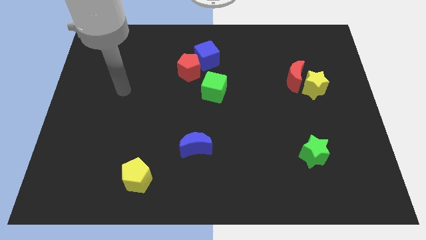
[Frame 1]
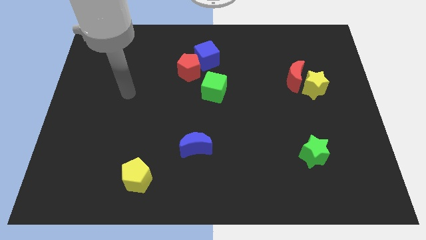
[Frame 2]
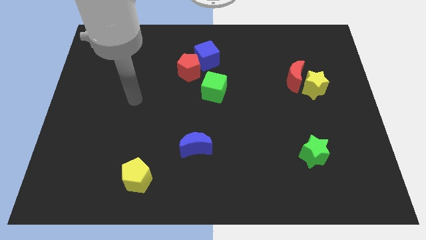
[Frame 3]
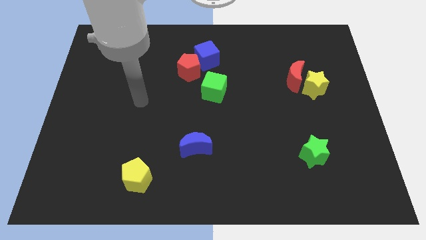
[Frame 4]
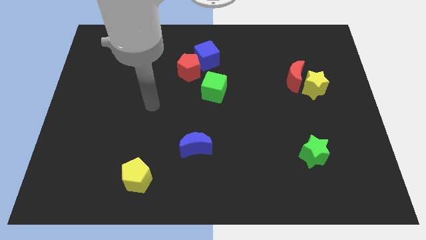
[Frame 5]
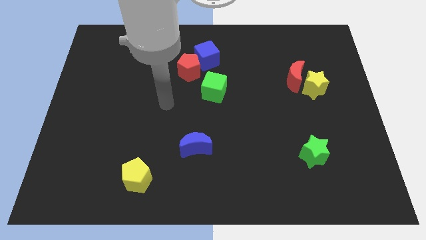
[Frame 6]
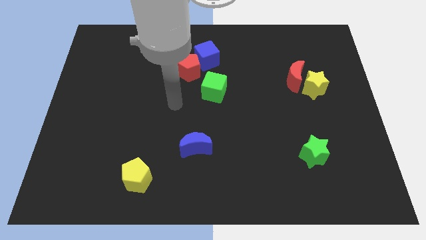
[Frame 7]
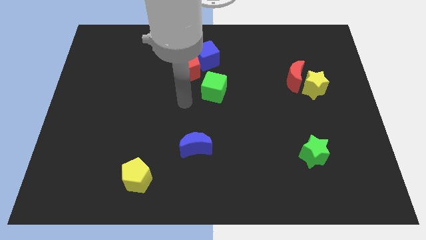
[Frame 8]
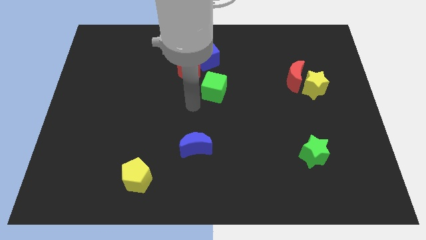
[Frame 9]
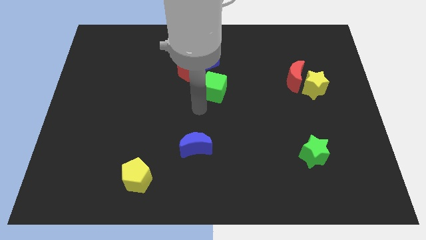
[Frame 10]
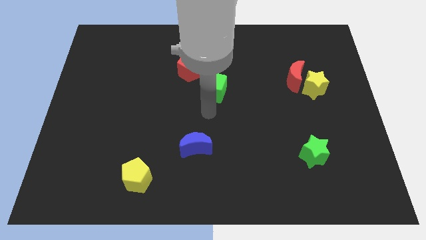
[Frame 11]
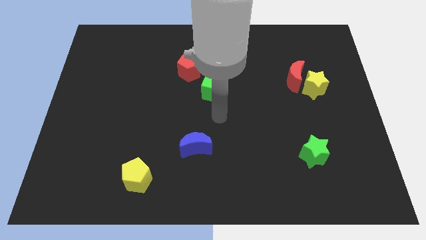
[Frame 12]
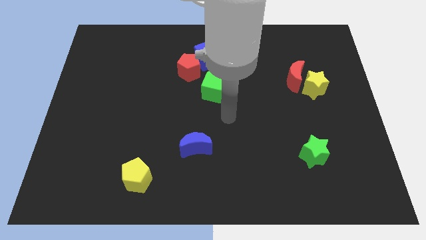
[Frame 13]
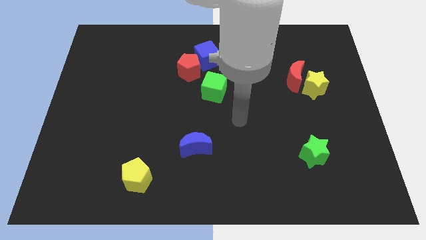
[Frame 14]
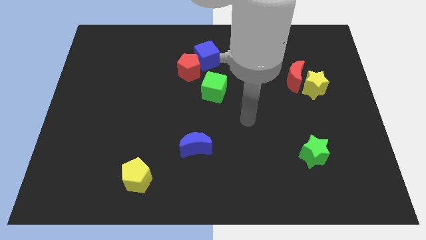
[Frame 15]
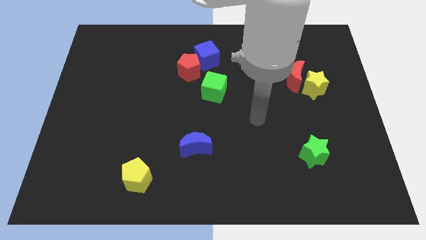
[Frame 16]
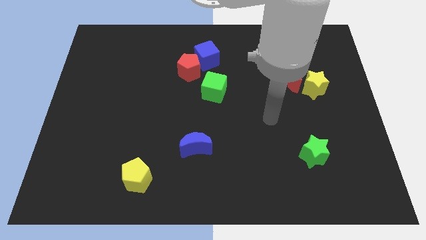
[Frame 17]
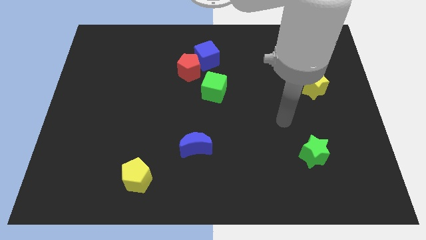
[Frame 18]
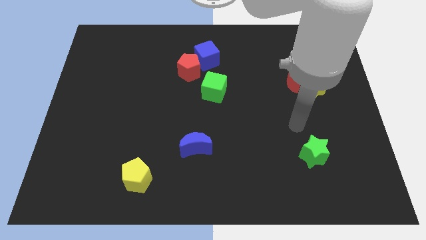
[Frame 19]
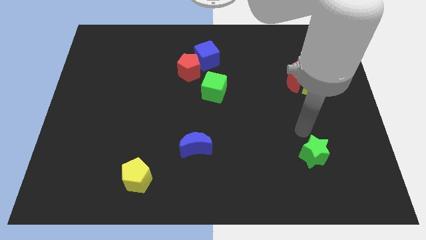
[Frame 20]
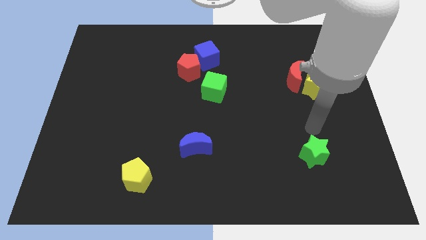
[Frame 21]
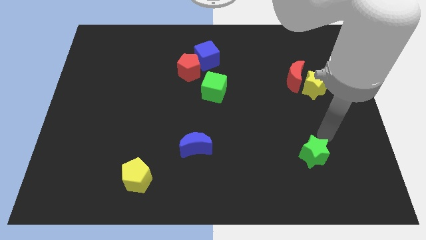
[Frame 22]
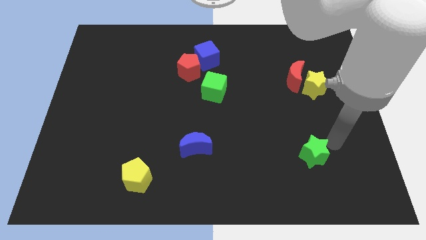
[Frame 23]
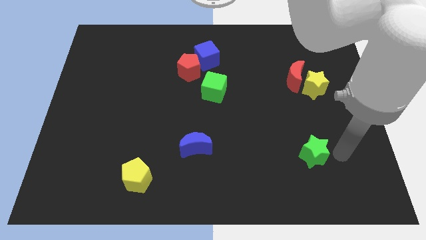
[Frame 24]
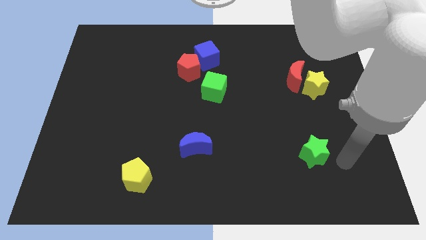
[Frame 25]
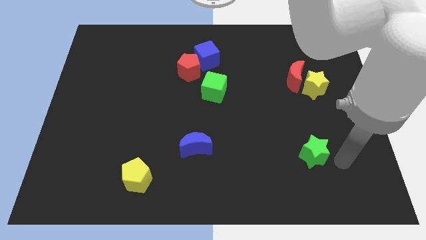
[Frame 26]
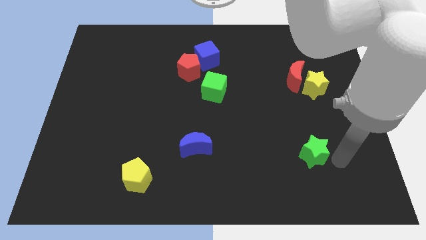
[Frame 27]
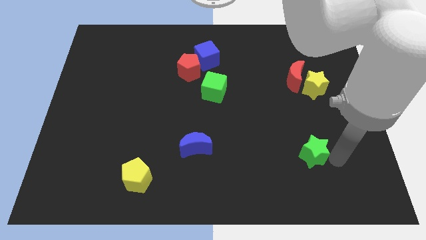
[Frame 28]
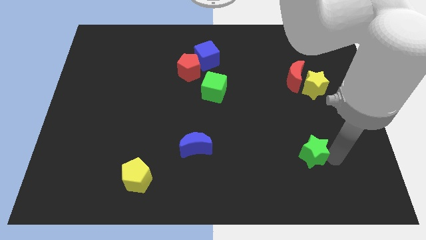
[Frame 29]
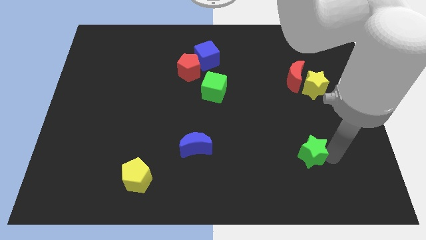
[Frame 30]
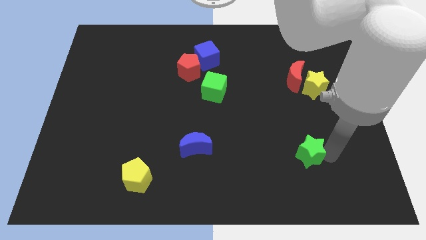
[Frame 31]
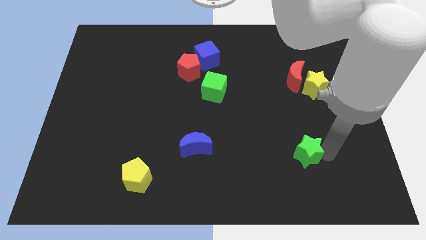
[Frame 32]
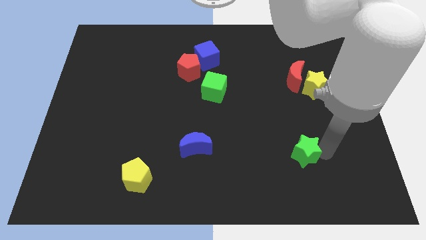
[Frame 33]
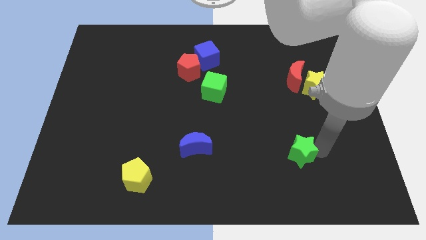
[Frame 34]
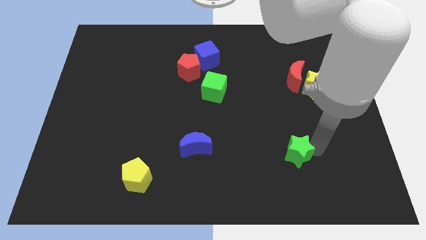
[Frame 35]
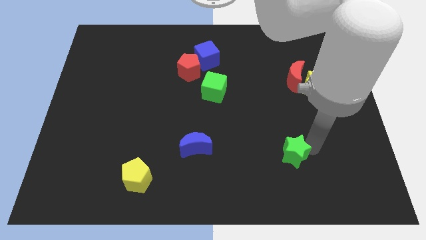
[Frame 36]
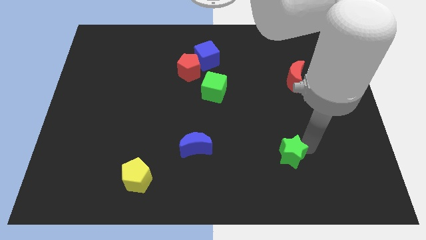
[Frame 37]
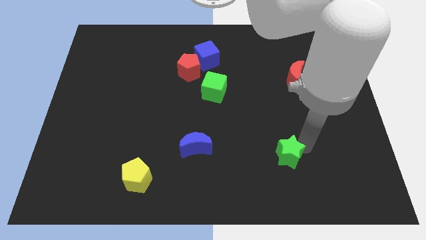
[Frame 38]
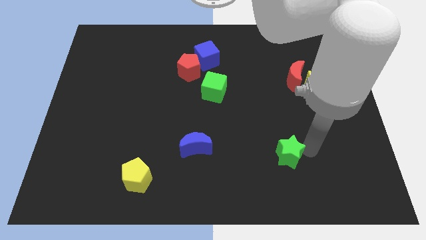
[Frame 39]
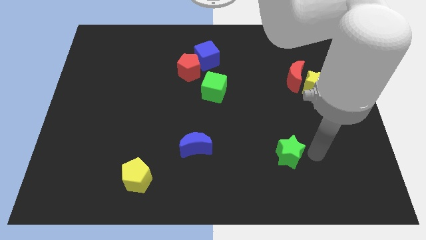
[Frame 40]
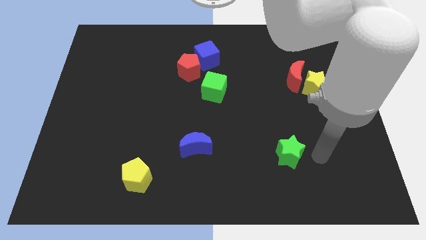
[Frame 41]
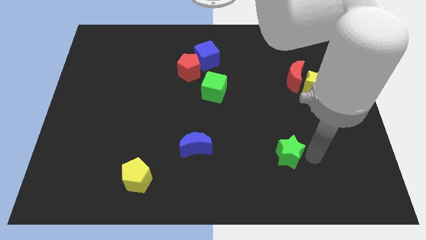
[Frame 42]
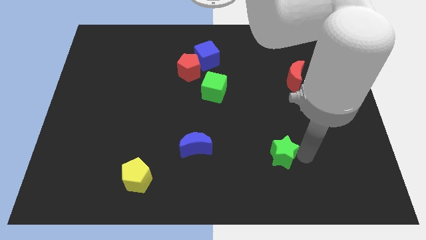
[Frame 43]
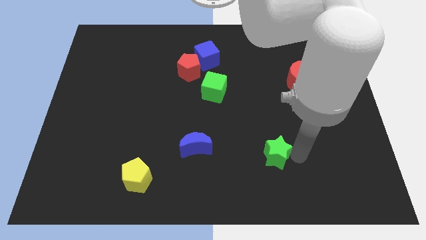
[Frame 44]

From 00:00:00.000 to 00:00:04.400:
push the green star slightly to the left

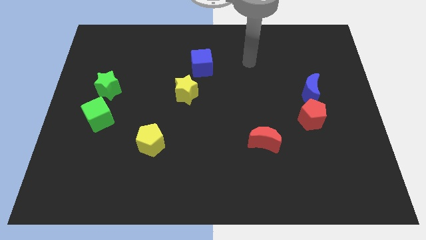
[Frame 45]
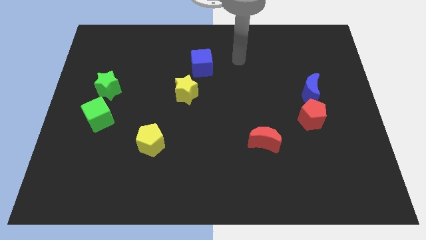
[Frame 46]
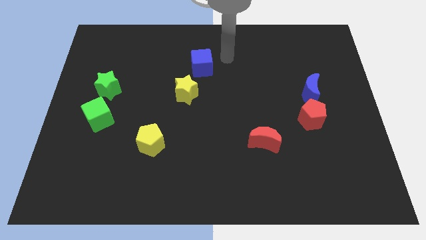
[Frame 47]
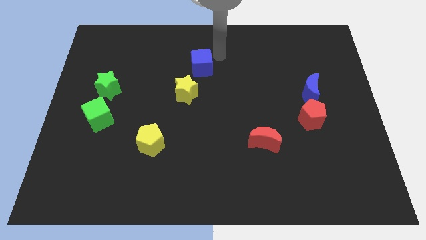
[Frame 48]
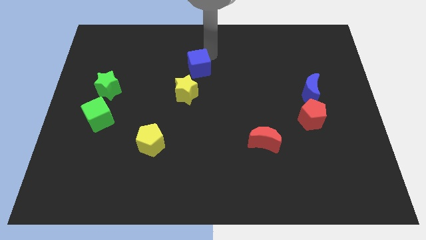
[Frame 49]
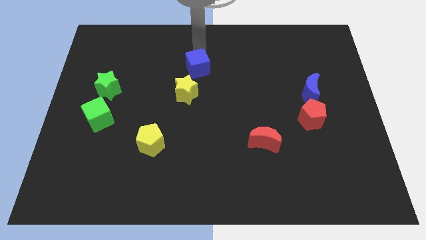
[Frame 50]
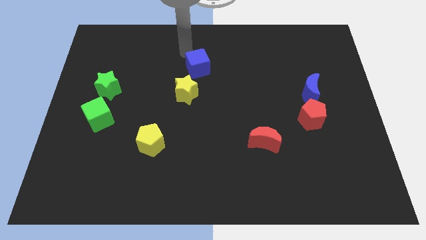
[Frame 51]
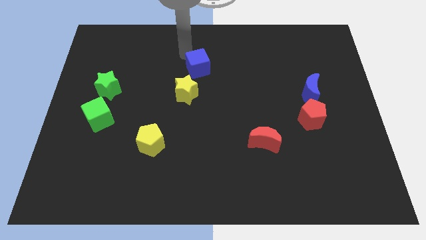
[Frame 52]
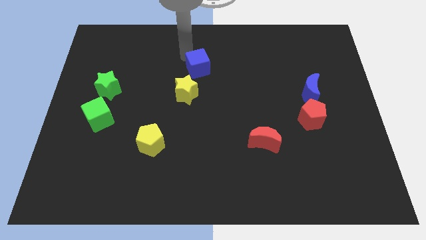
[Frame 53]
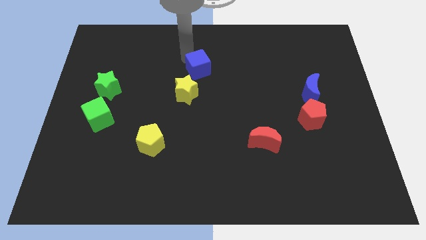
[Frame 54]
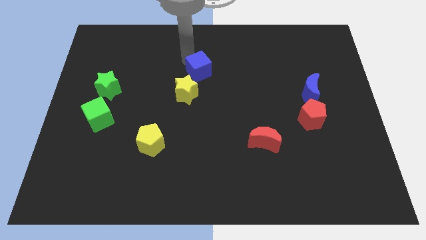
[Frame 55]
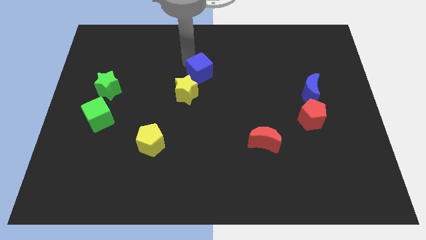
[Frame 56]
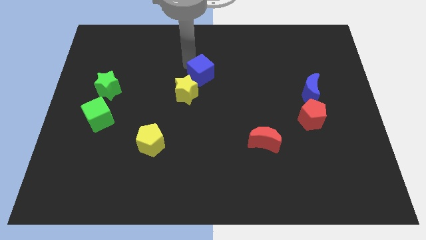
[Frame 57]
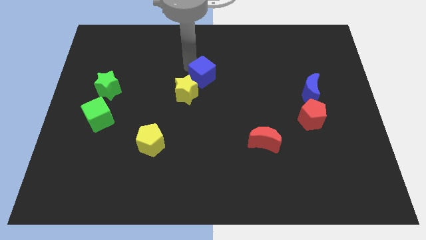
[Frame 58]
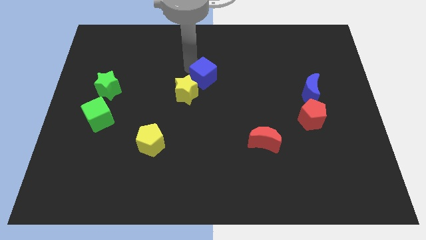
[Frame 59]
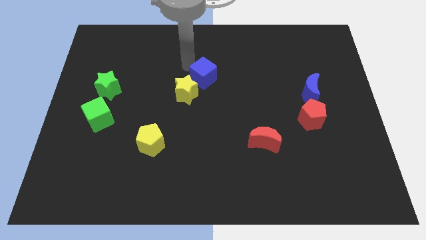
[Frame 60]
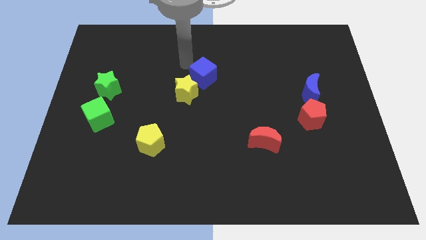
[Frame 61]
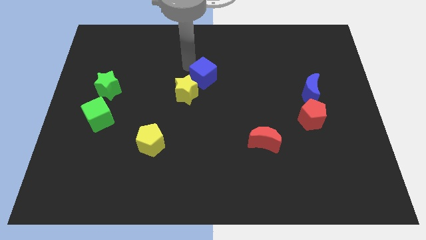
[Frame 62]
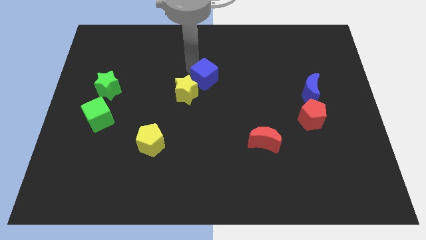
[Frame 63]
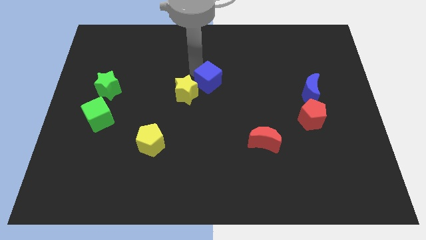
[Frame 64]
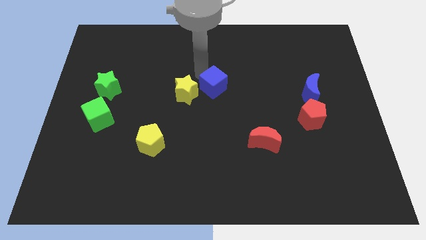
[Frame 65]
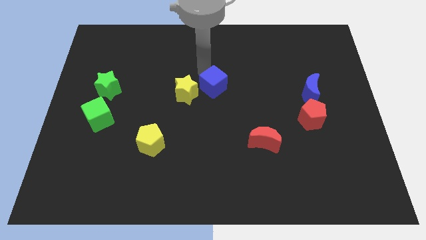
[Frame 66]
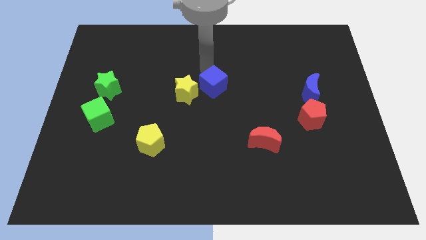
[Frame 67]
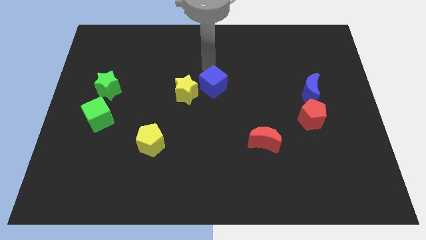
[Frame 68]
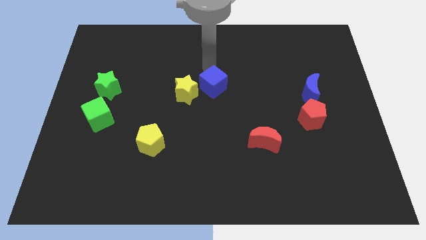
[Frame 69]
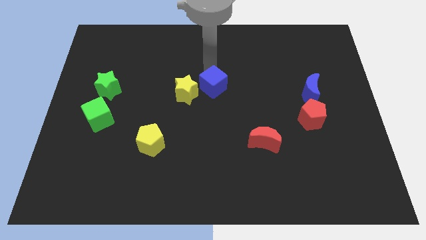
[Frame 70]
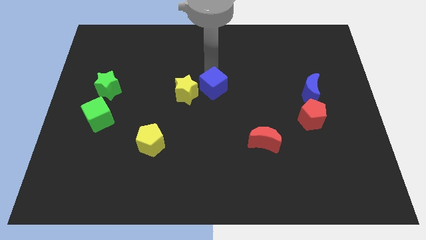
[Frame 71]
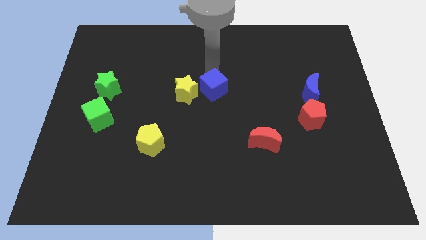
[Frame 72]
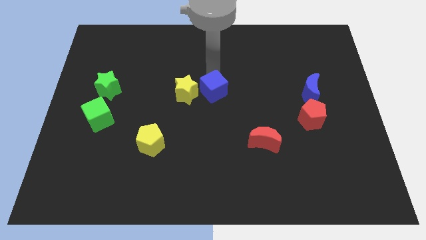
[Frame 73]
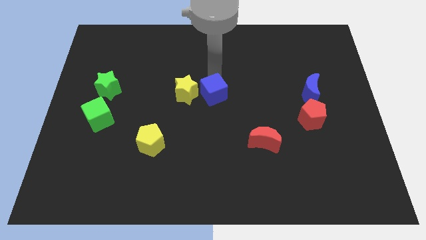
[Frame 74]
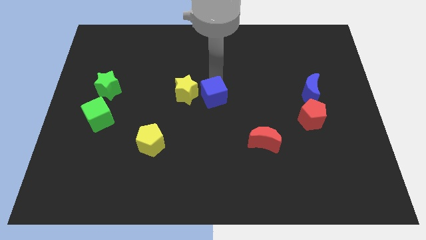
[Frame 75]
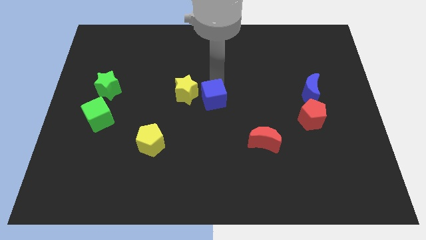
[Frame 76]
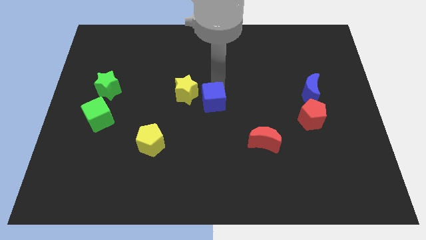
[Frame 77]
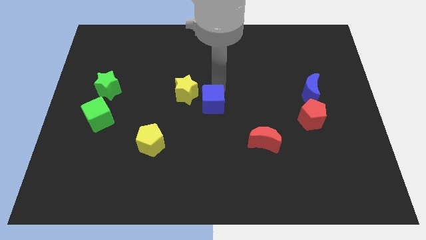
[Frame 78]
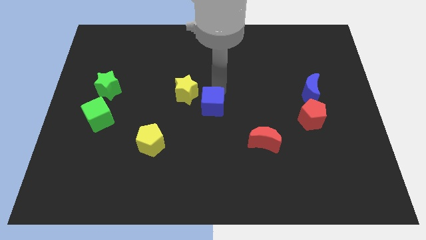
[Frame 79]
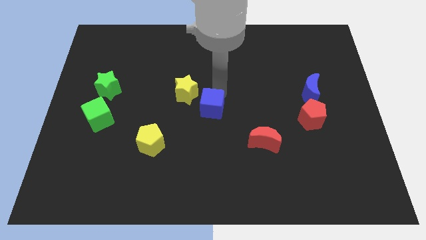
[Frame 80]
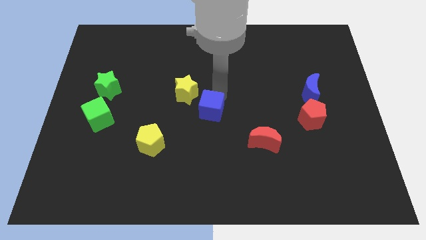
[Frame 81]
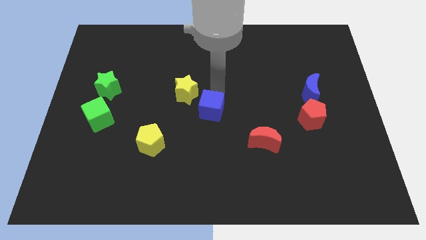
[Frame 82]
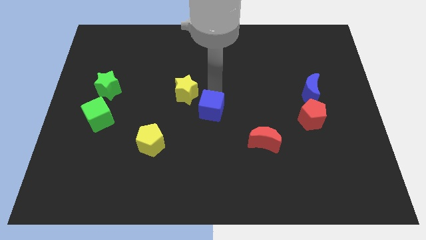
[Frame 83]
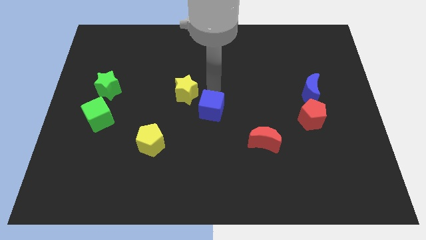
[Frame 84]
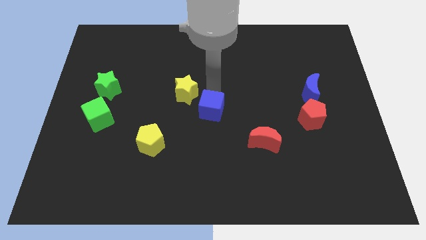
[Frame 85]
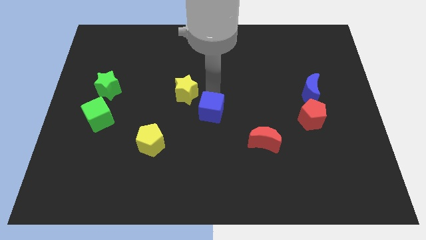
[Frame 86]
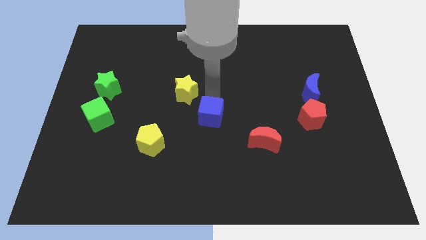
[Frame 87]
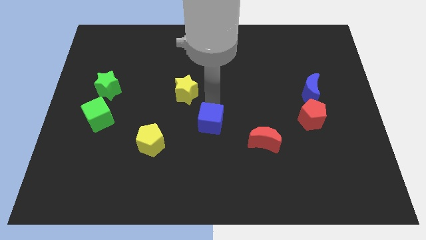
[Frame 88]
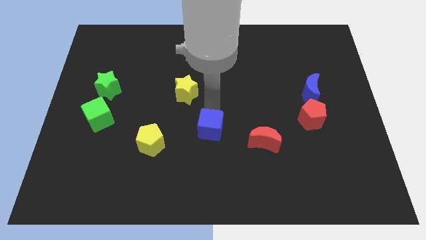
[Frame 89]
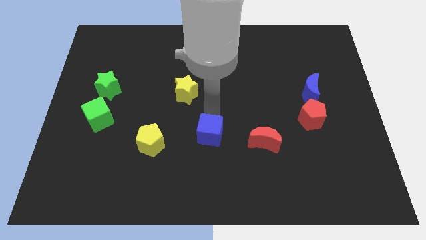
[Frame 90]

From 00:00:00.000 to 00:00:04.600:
slide the blue cube down
